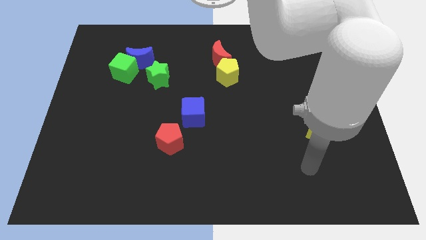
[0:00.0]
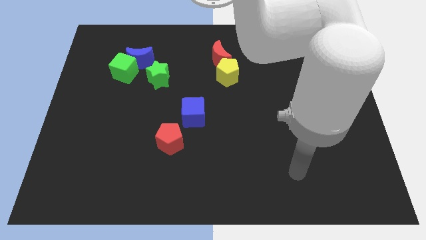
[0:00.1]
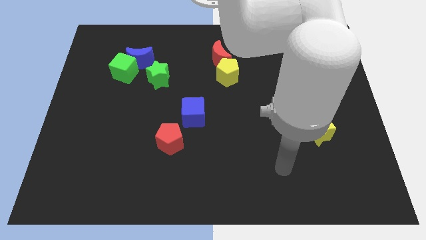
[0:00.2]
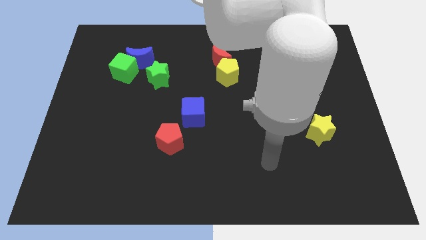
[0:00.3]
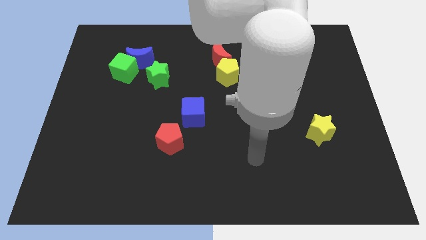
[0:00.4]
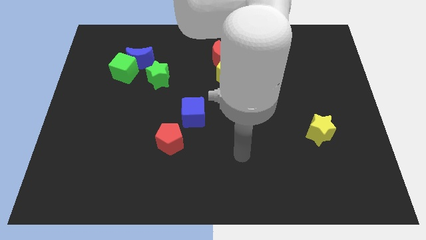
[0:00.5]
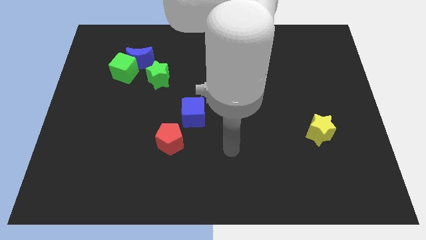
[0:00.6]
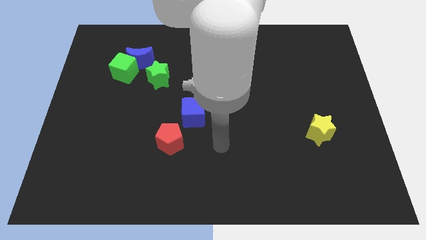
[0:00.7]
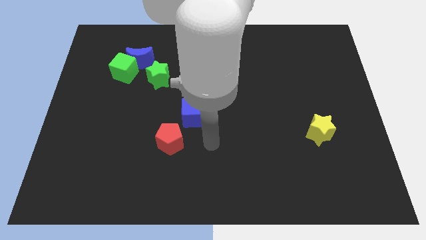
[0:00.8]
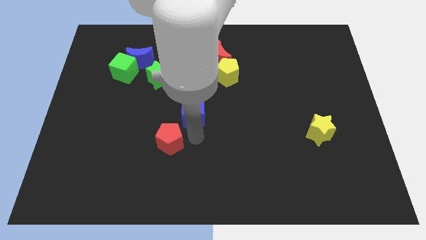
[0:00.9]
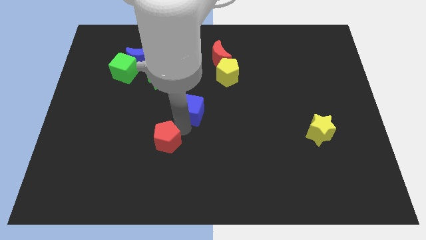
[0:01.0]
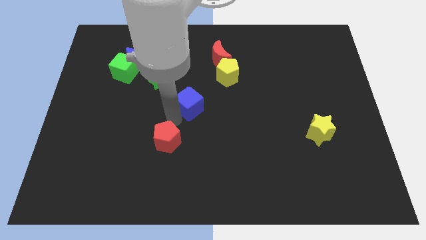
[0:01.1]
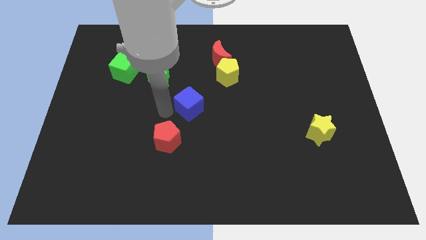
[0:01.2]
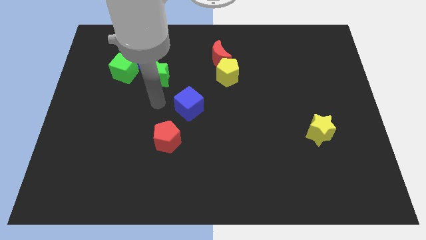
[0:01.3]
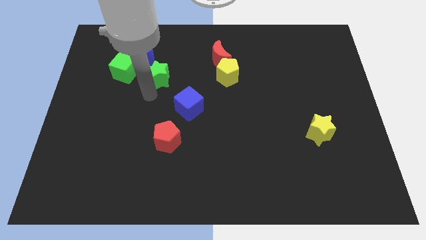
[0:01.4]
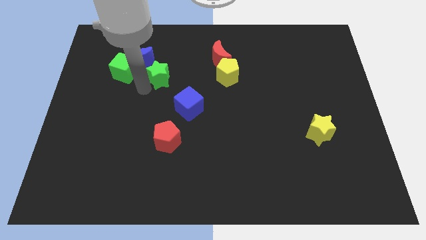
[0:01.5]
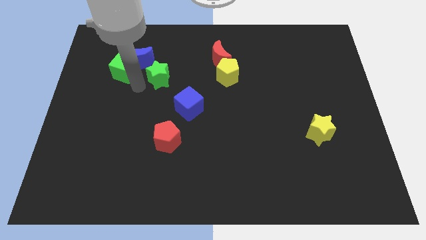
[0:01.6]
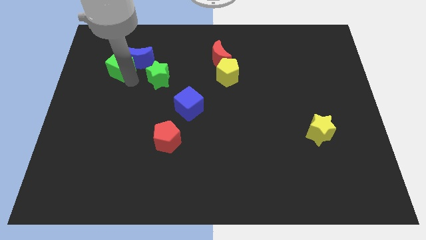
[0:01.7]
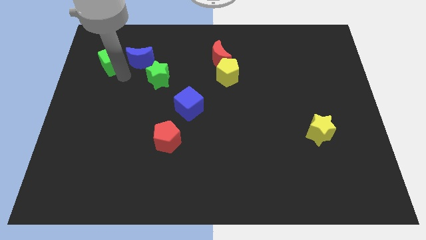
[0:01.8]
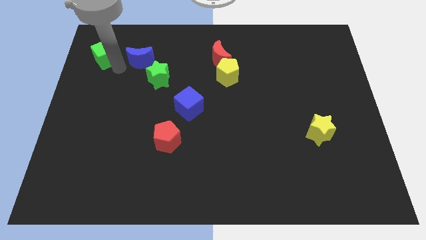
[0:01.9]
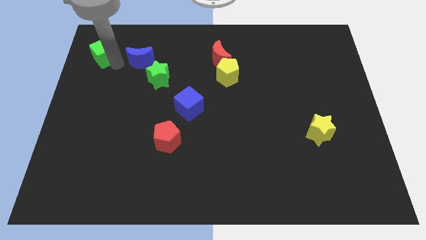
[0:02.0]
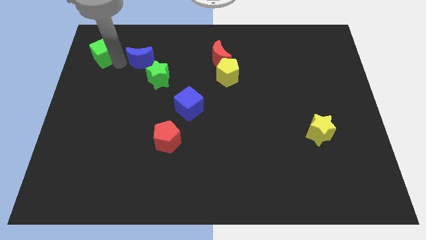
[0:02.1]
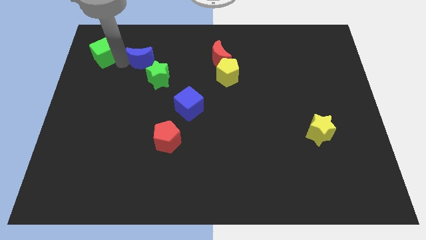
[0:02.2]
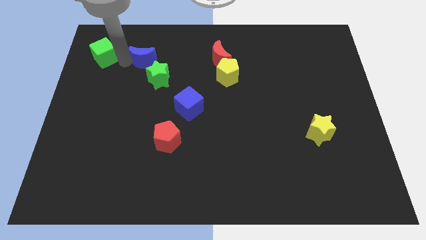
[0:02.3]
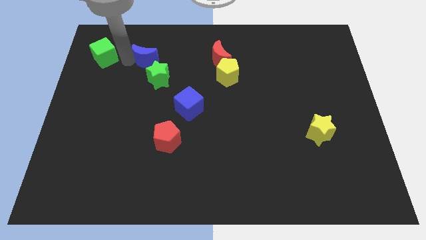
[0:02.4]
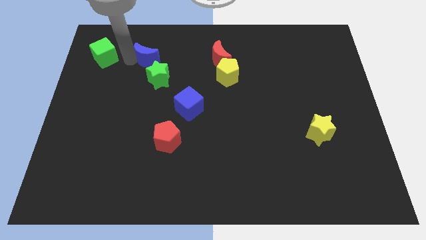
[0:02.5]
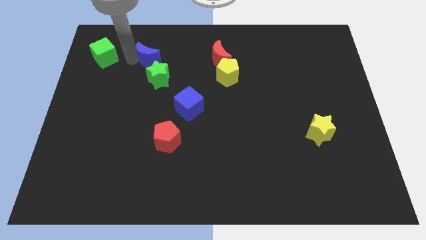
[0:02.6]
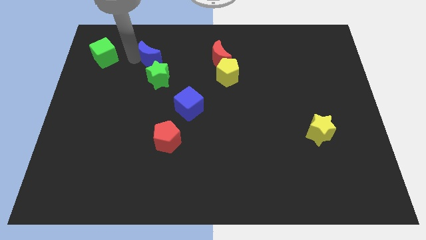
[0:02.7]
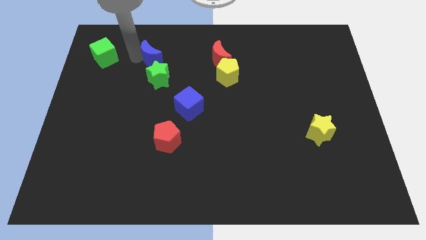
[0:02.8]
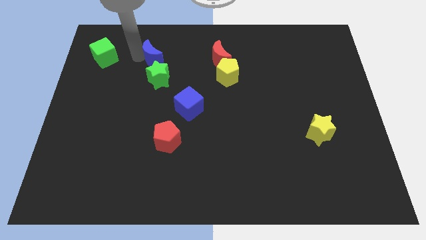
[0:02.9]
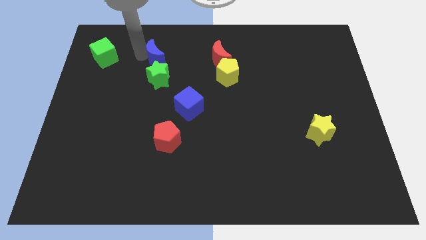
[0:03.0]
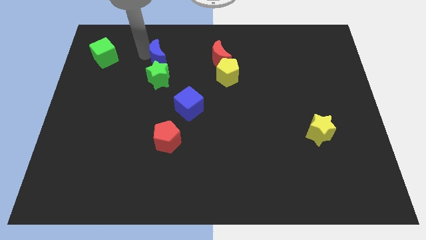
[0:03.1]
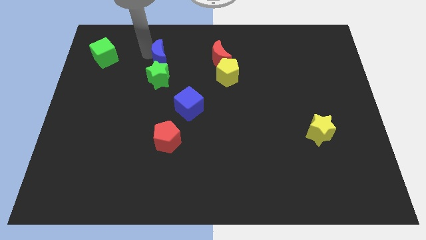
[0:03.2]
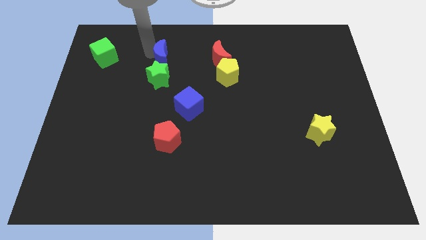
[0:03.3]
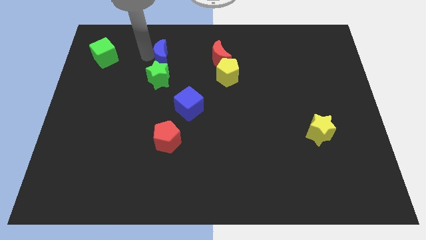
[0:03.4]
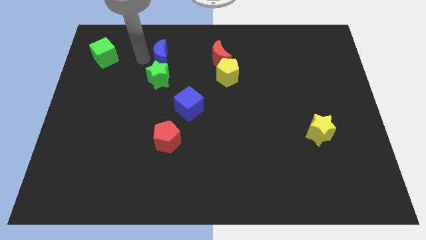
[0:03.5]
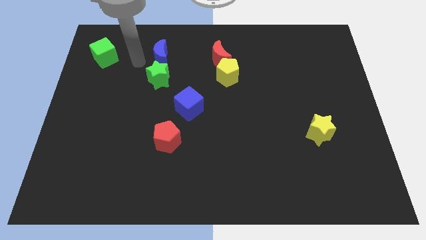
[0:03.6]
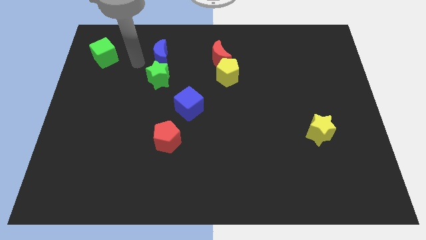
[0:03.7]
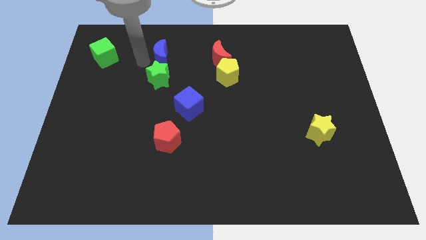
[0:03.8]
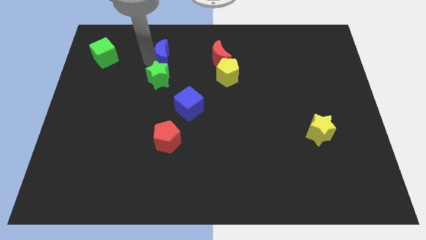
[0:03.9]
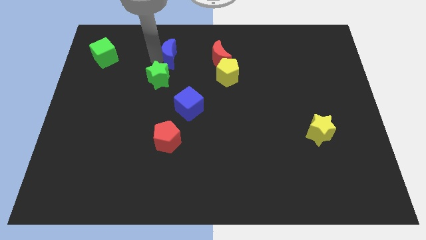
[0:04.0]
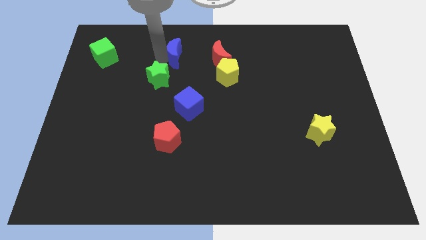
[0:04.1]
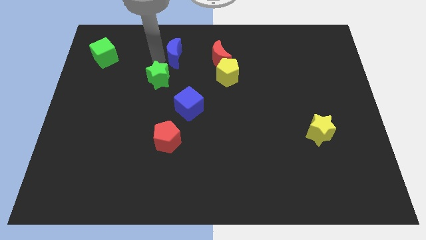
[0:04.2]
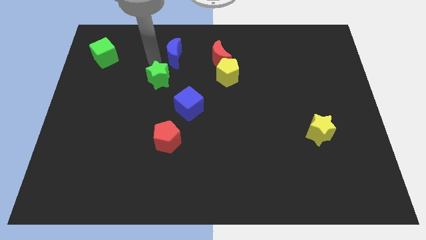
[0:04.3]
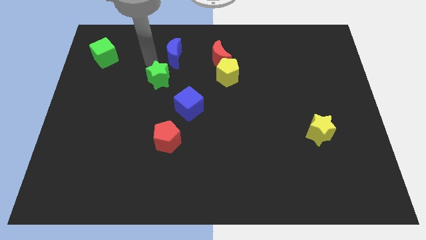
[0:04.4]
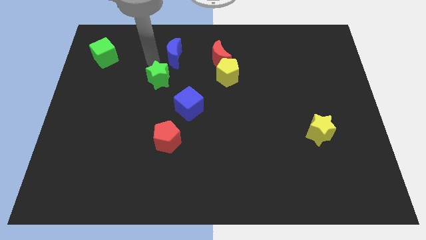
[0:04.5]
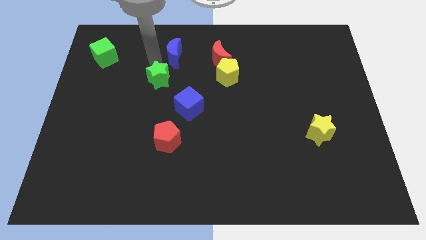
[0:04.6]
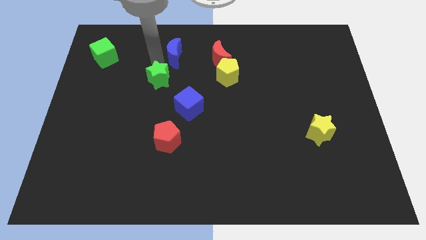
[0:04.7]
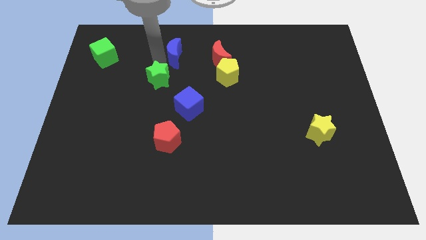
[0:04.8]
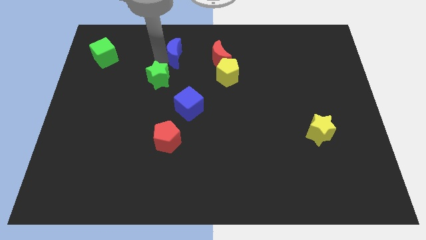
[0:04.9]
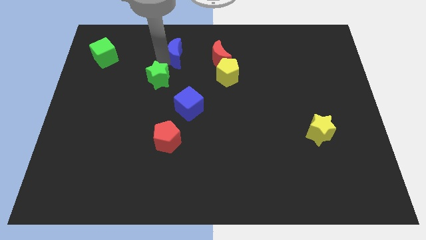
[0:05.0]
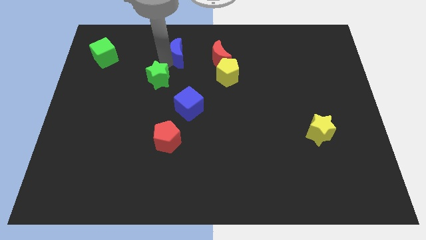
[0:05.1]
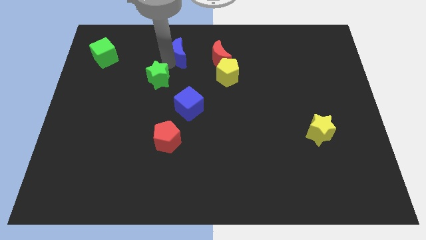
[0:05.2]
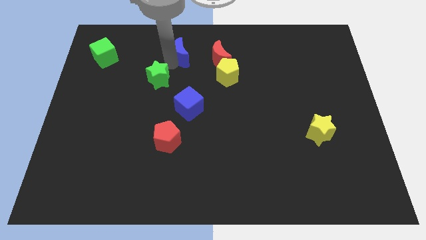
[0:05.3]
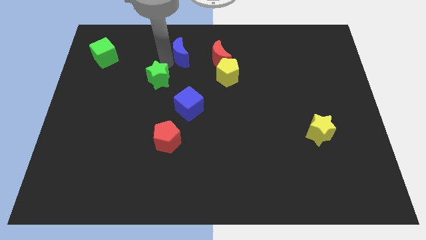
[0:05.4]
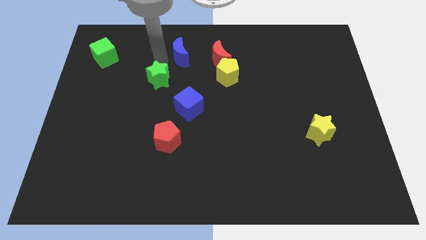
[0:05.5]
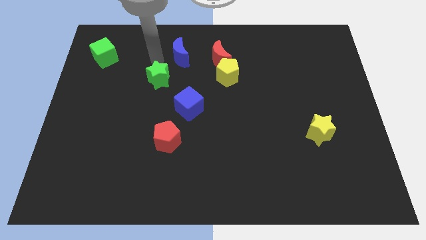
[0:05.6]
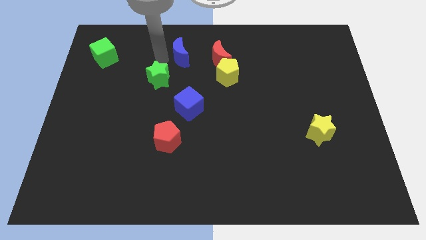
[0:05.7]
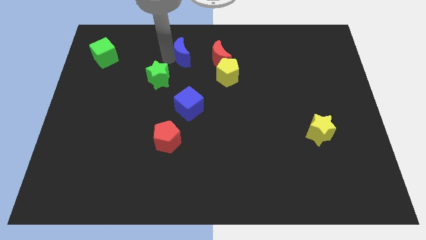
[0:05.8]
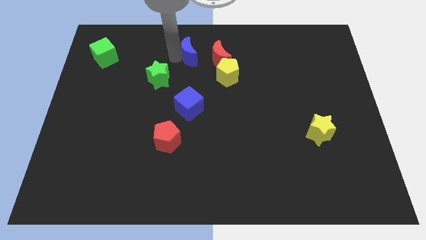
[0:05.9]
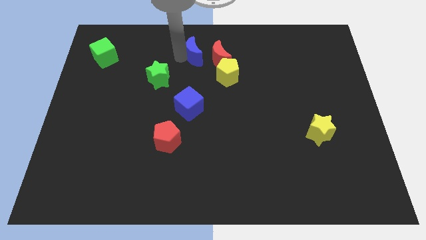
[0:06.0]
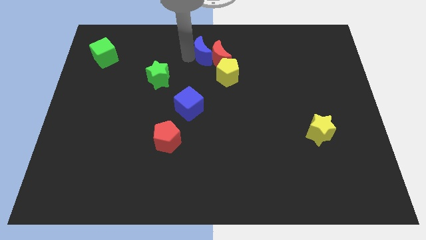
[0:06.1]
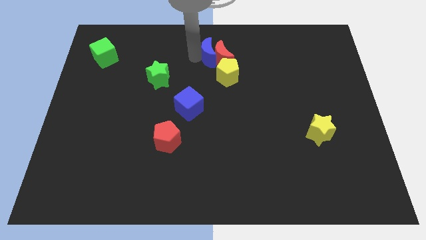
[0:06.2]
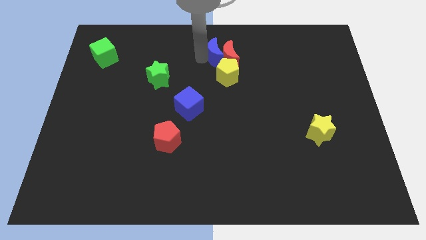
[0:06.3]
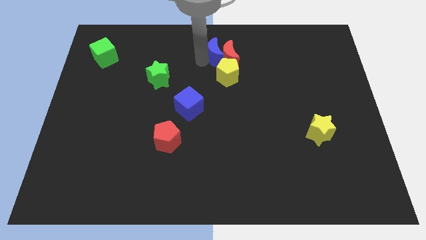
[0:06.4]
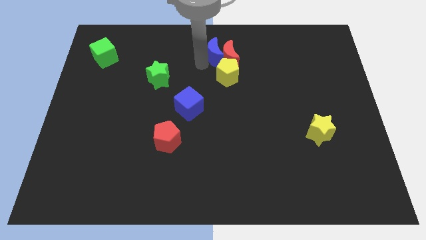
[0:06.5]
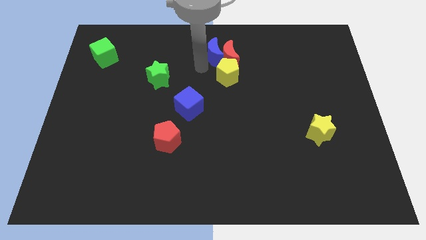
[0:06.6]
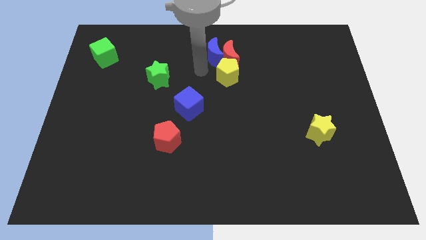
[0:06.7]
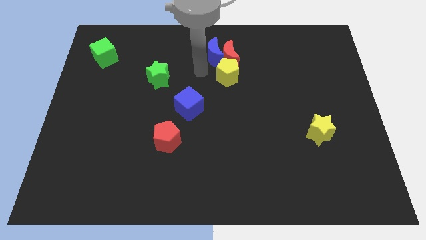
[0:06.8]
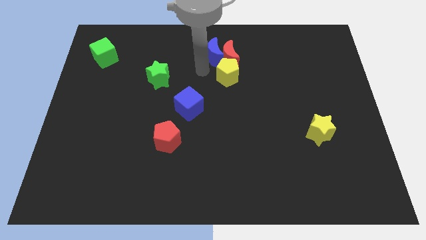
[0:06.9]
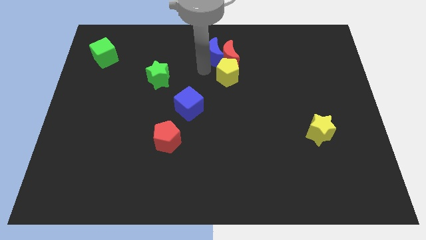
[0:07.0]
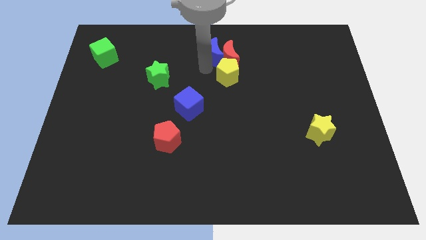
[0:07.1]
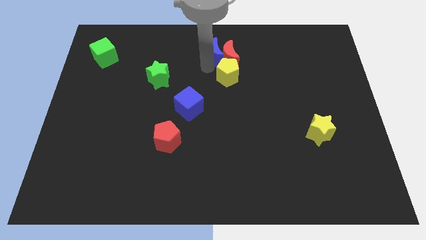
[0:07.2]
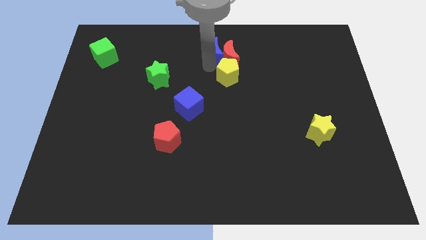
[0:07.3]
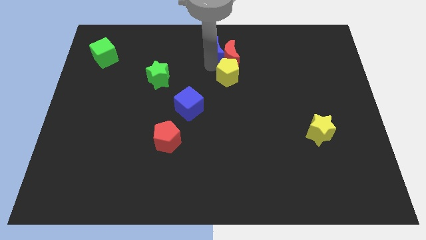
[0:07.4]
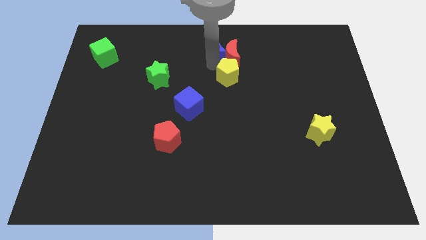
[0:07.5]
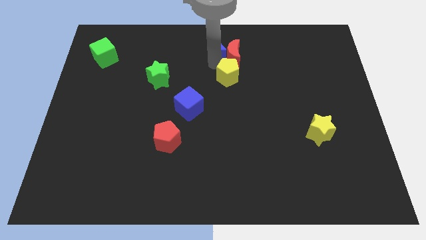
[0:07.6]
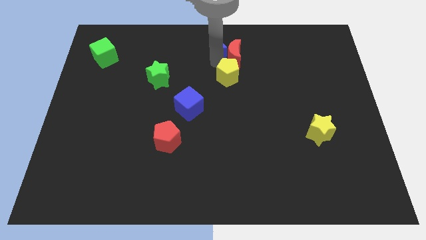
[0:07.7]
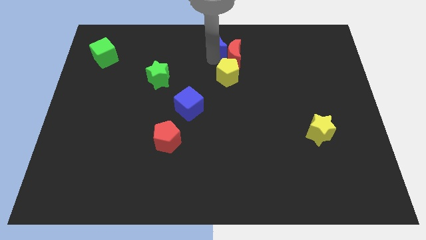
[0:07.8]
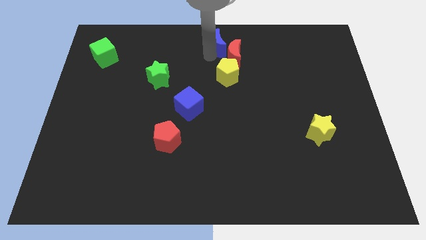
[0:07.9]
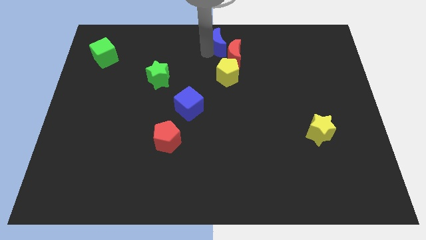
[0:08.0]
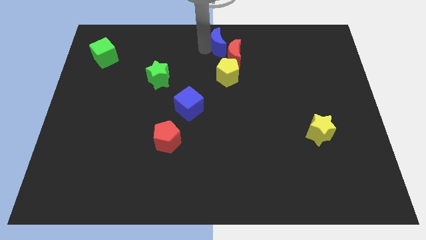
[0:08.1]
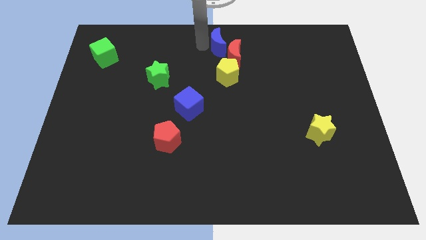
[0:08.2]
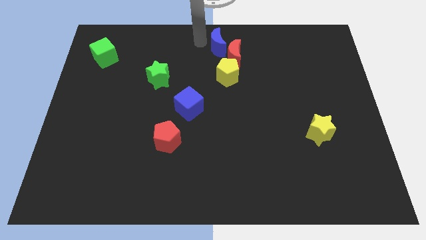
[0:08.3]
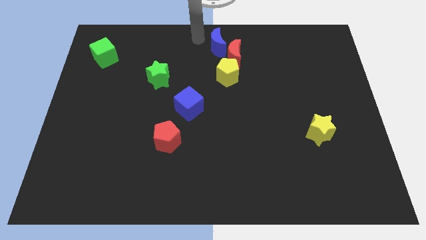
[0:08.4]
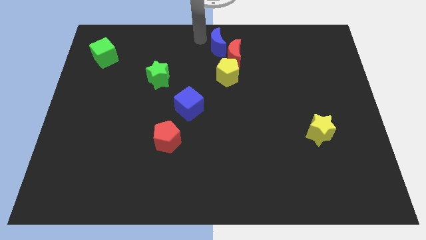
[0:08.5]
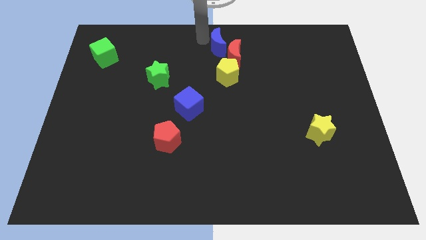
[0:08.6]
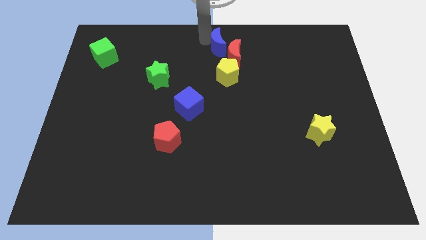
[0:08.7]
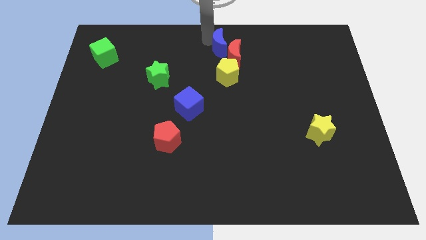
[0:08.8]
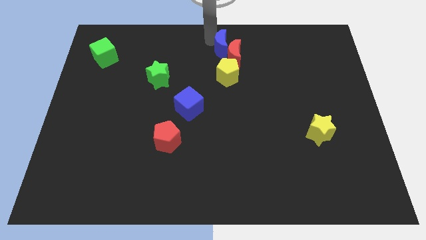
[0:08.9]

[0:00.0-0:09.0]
slide the blue moon to the right
